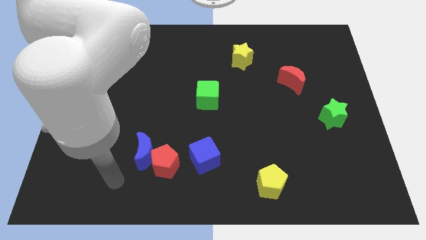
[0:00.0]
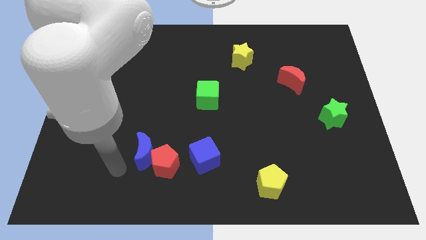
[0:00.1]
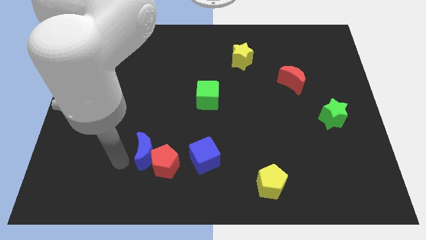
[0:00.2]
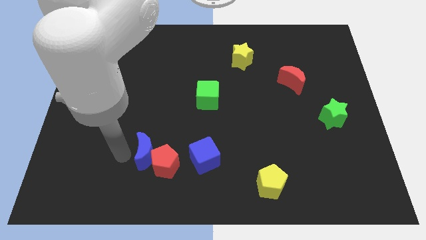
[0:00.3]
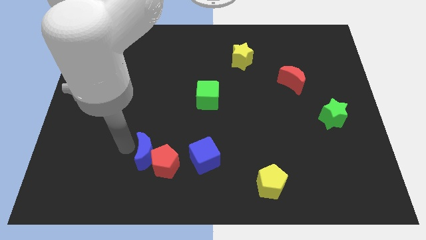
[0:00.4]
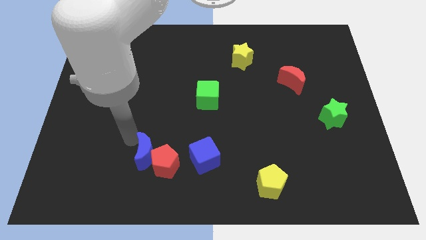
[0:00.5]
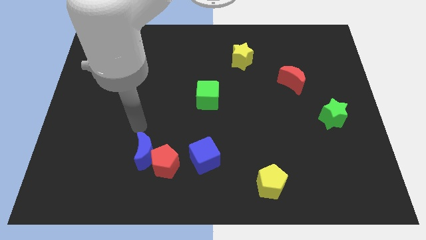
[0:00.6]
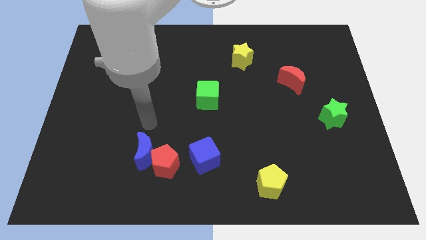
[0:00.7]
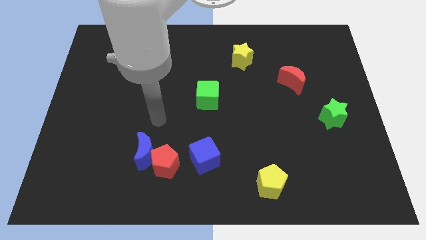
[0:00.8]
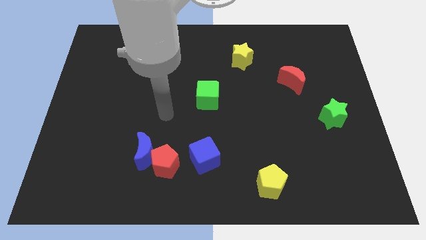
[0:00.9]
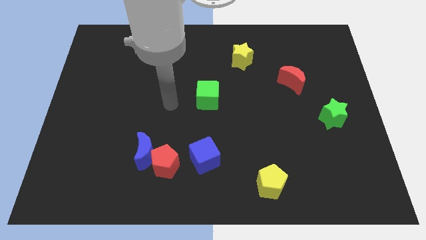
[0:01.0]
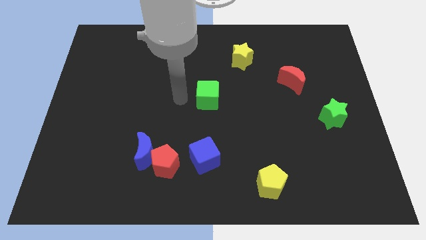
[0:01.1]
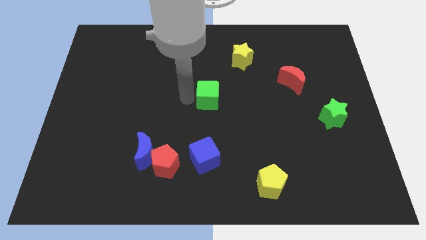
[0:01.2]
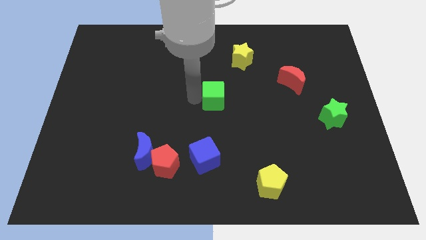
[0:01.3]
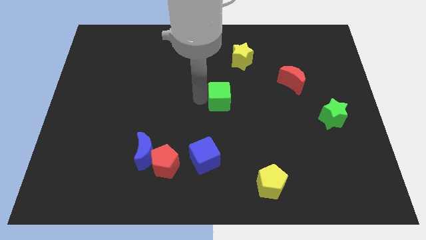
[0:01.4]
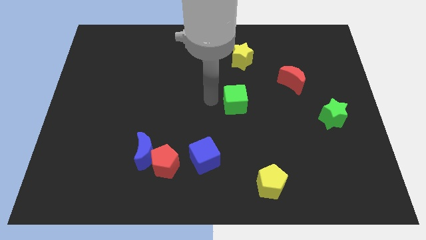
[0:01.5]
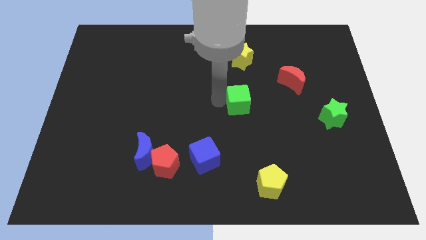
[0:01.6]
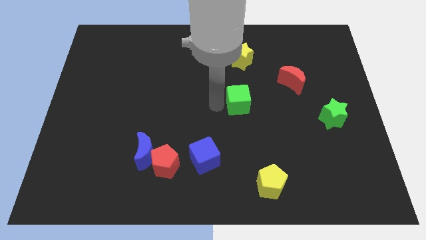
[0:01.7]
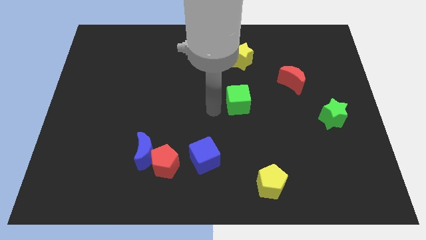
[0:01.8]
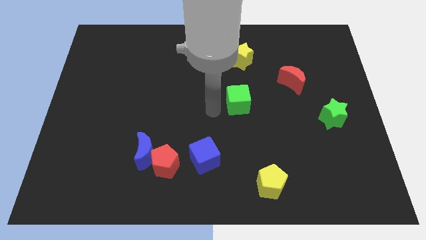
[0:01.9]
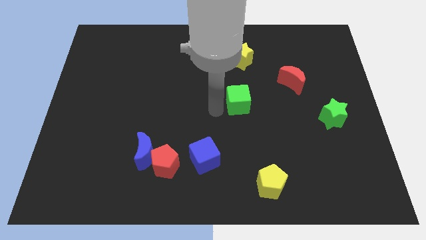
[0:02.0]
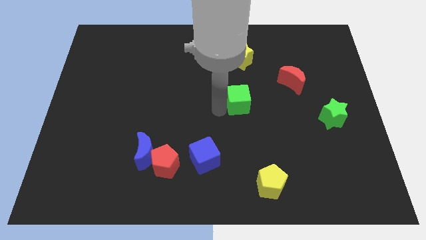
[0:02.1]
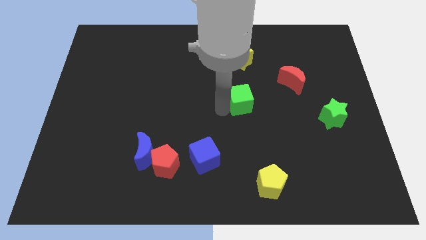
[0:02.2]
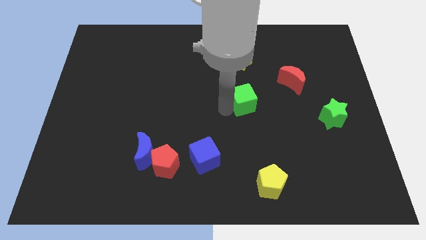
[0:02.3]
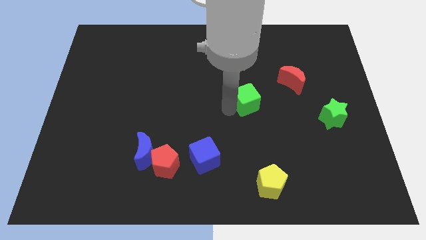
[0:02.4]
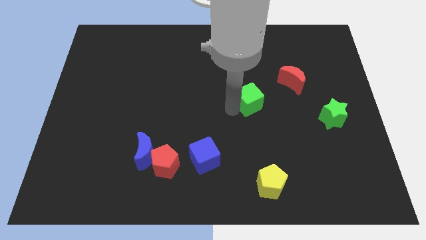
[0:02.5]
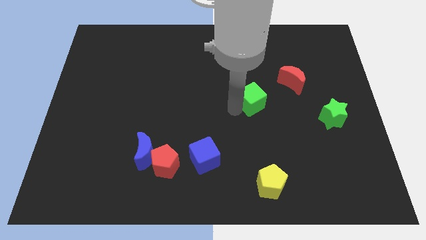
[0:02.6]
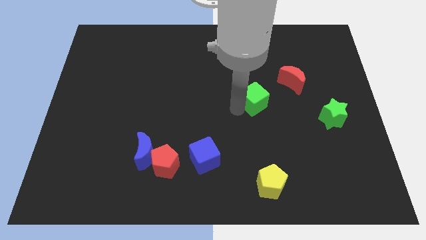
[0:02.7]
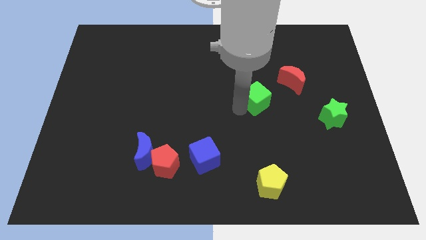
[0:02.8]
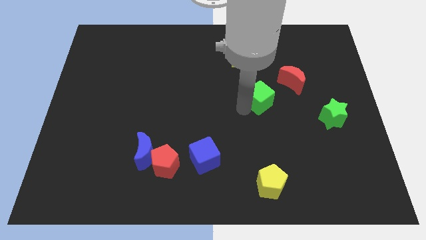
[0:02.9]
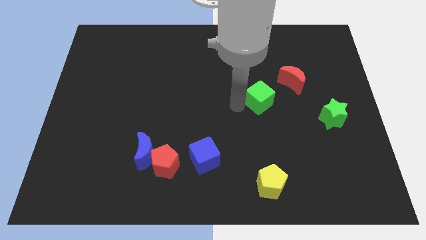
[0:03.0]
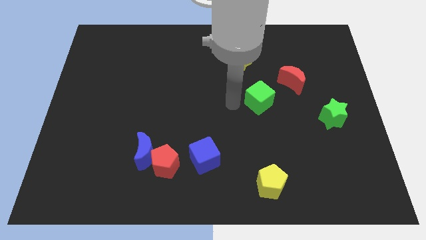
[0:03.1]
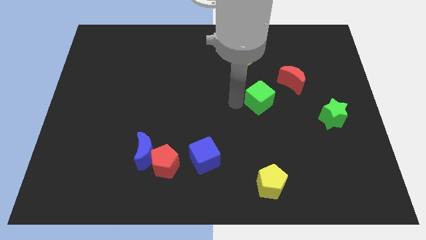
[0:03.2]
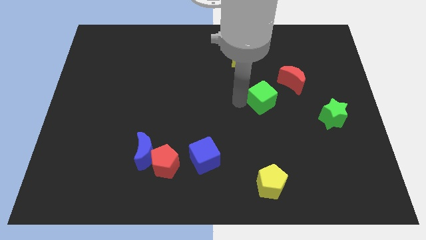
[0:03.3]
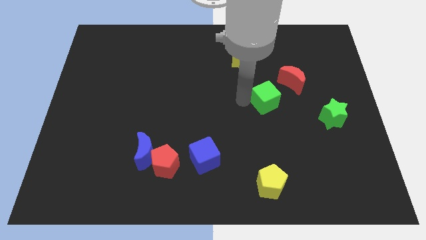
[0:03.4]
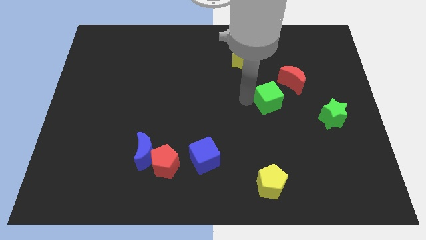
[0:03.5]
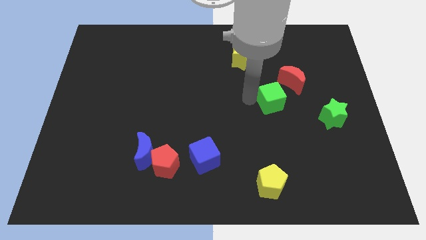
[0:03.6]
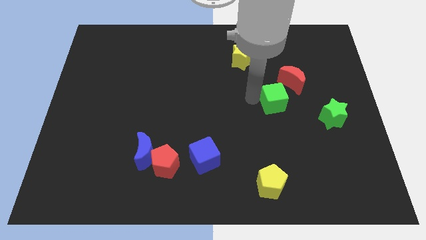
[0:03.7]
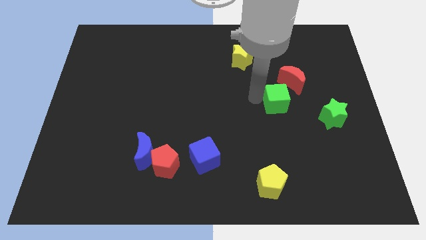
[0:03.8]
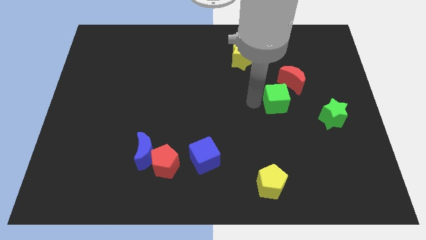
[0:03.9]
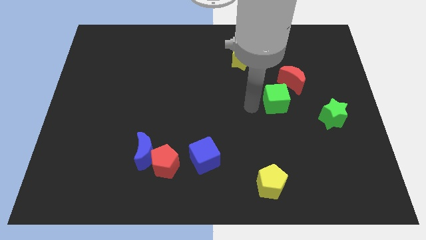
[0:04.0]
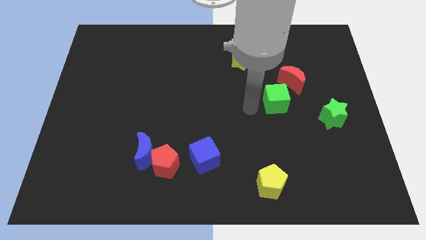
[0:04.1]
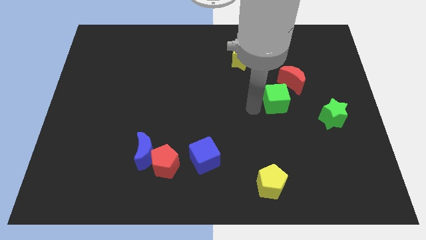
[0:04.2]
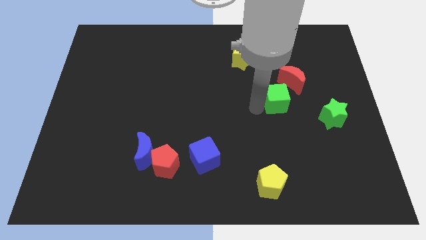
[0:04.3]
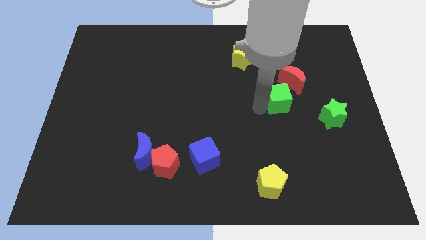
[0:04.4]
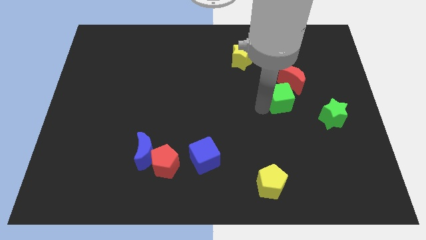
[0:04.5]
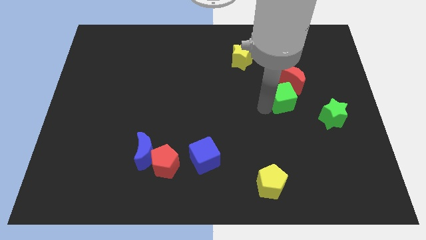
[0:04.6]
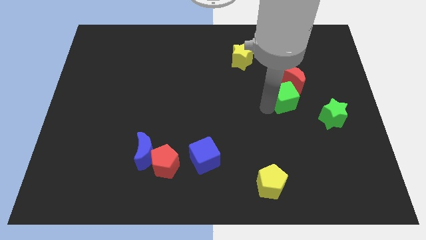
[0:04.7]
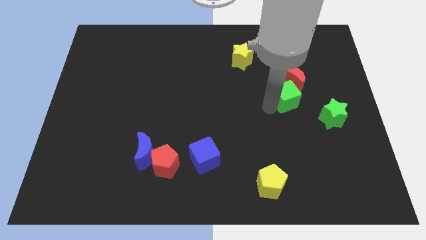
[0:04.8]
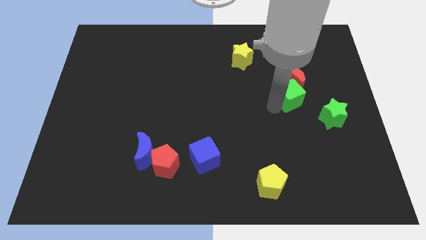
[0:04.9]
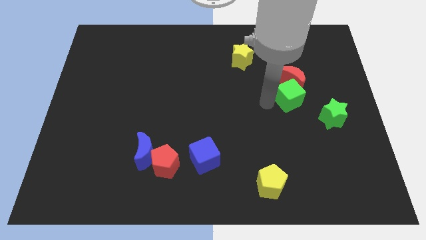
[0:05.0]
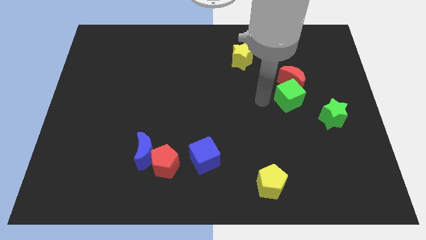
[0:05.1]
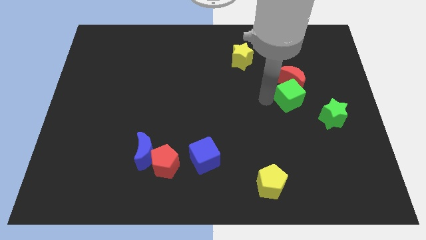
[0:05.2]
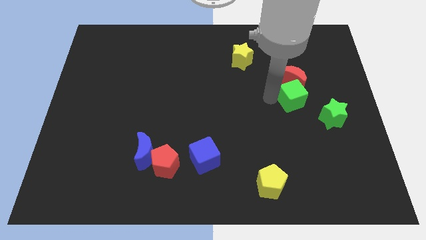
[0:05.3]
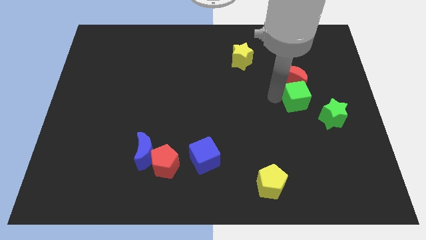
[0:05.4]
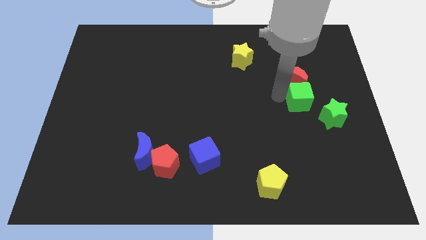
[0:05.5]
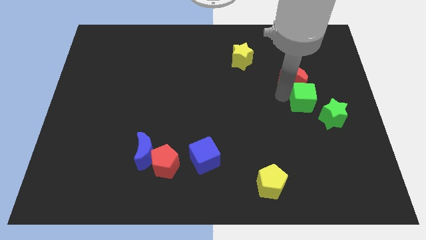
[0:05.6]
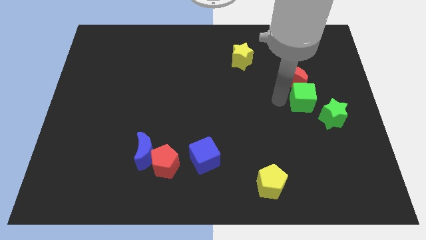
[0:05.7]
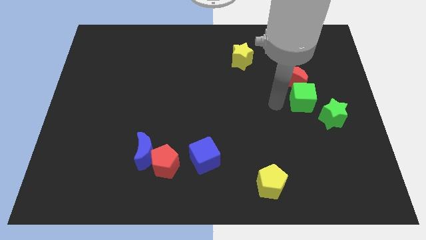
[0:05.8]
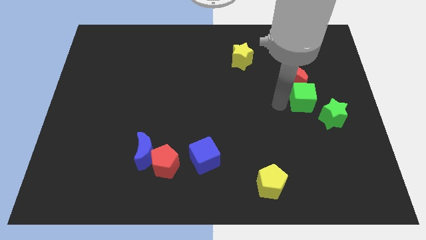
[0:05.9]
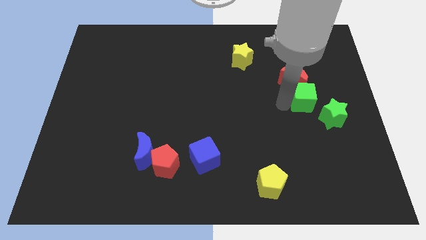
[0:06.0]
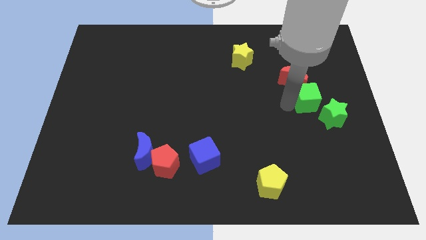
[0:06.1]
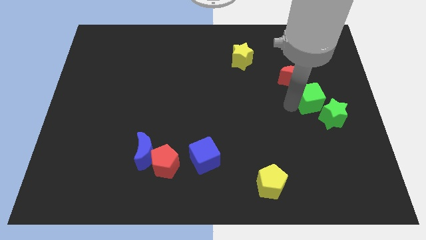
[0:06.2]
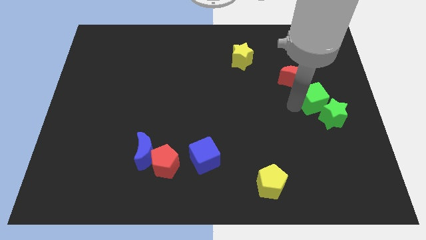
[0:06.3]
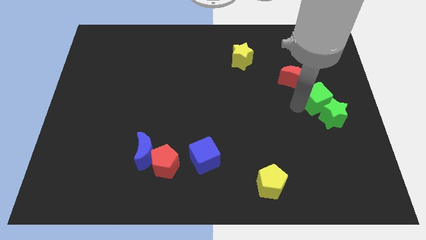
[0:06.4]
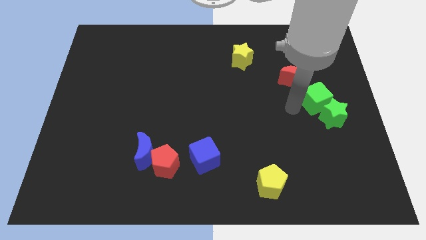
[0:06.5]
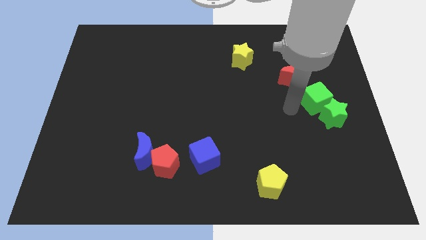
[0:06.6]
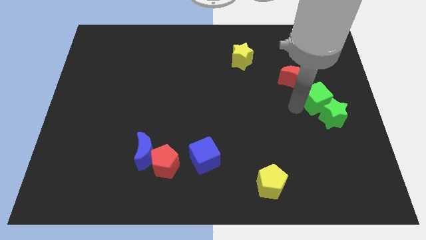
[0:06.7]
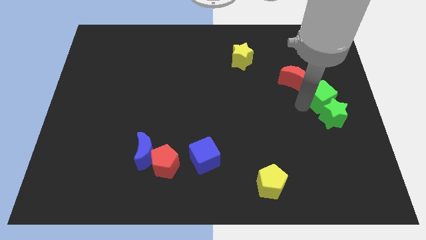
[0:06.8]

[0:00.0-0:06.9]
push the green cube to the right side of the board
